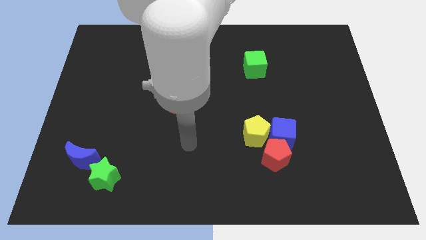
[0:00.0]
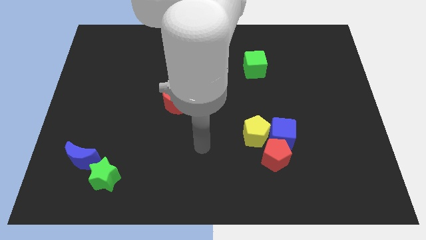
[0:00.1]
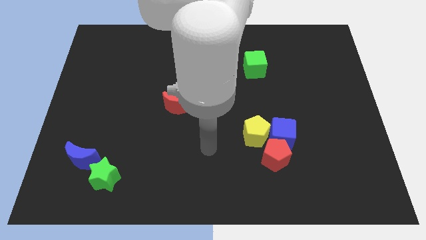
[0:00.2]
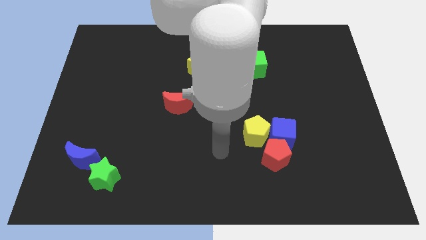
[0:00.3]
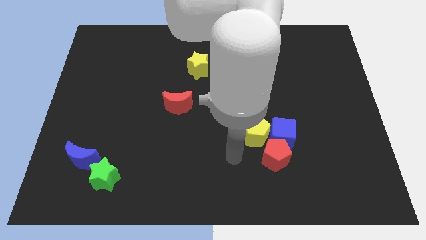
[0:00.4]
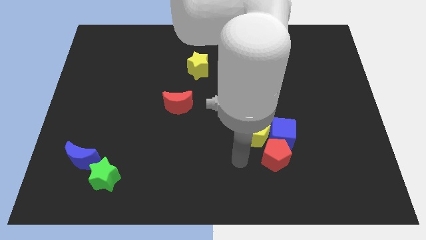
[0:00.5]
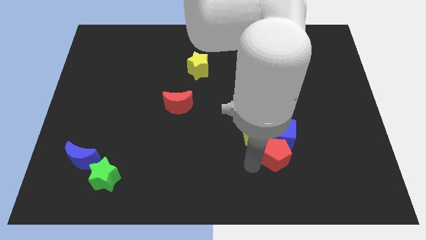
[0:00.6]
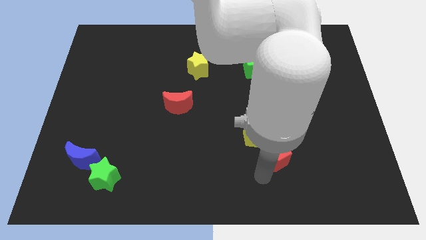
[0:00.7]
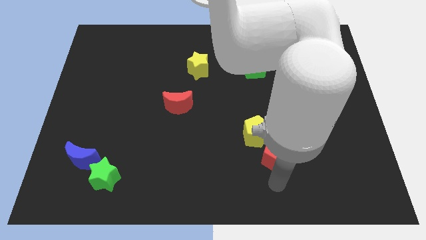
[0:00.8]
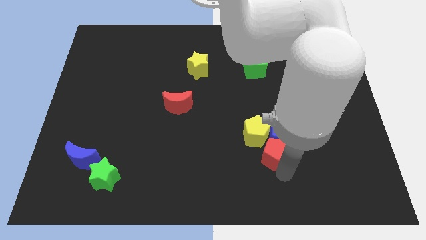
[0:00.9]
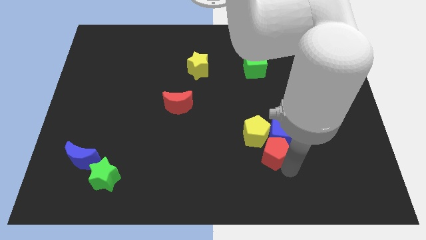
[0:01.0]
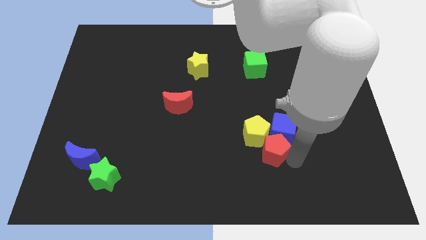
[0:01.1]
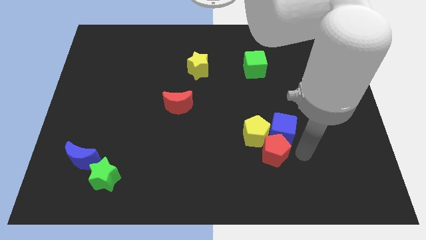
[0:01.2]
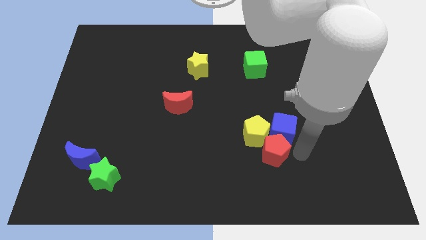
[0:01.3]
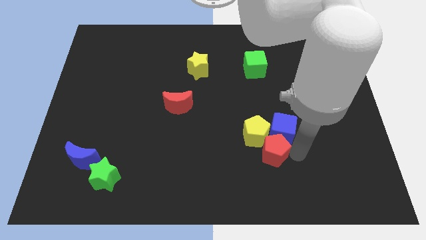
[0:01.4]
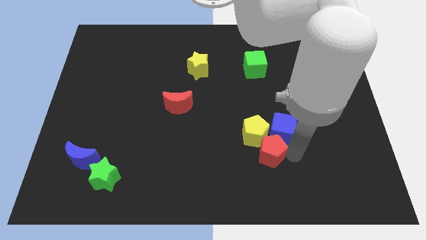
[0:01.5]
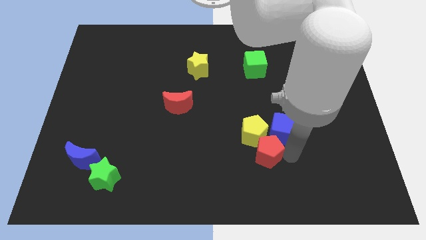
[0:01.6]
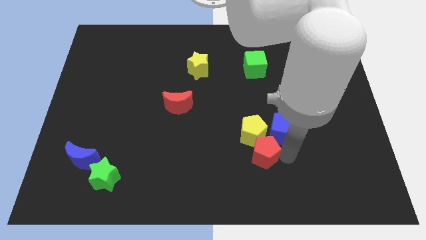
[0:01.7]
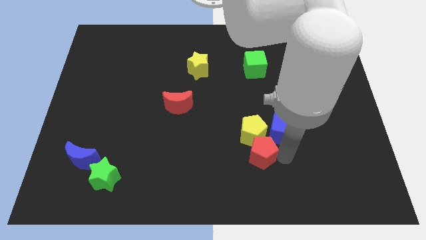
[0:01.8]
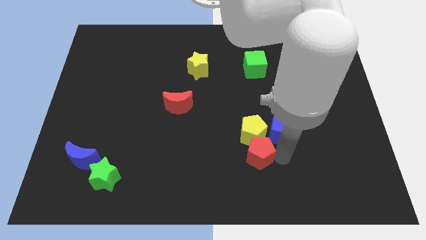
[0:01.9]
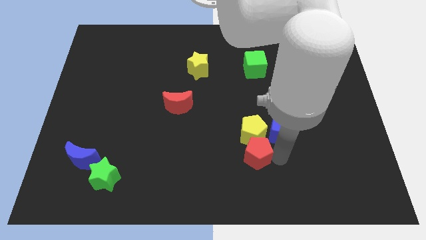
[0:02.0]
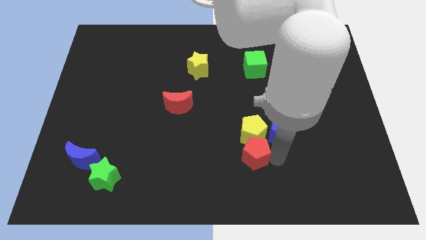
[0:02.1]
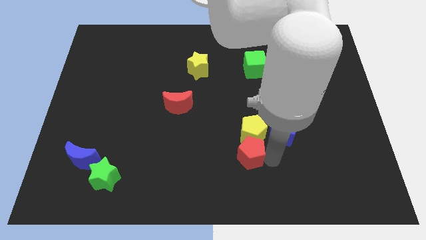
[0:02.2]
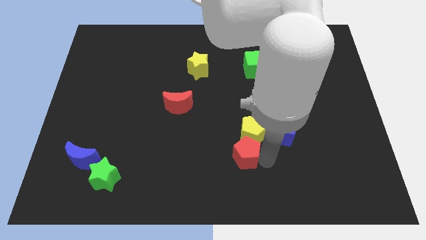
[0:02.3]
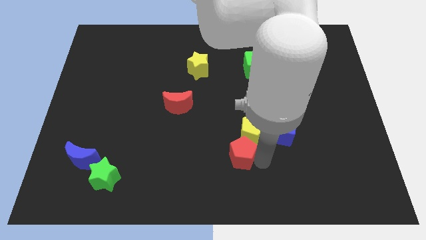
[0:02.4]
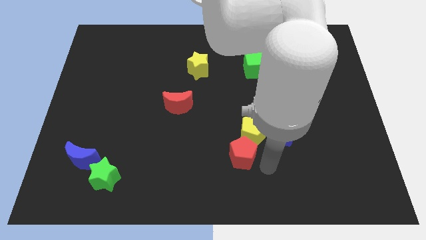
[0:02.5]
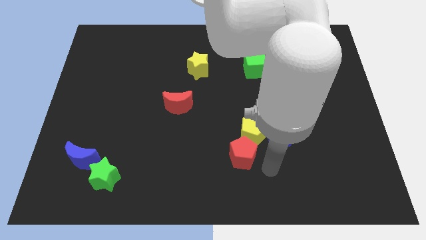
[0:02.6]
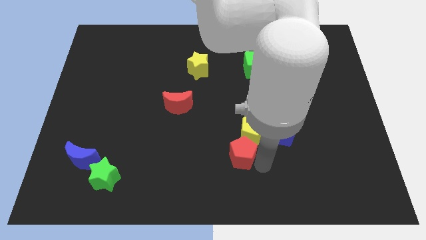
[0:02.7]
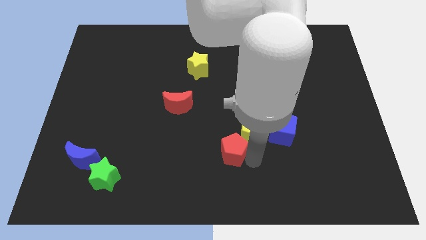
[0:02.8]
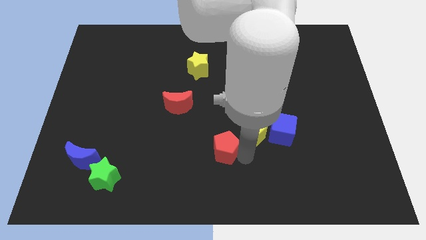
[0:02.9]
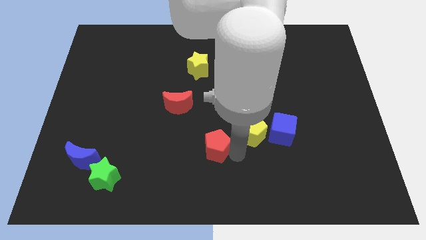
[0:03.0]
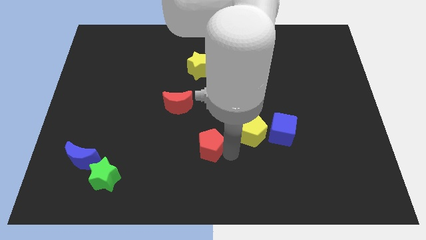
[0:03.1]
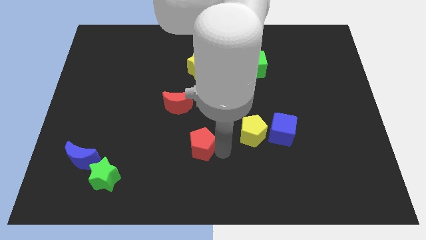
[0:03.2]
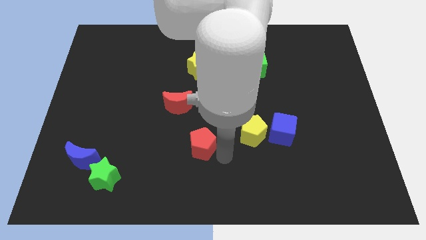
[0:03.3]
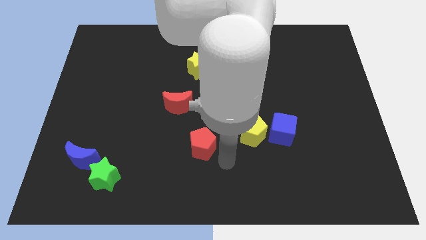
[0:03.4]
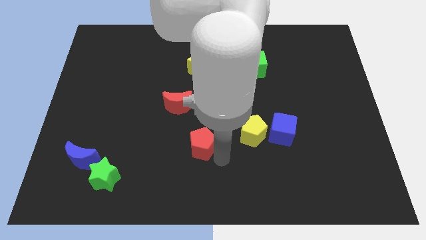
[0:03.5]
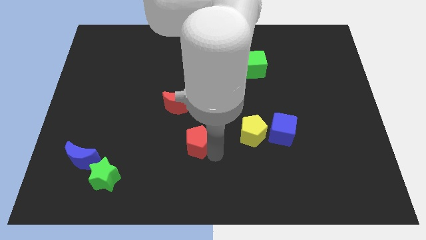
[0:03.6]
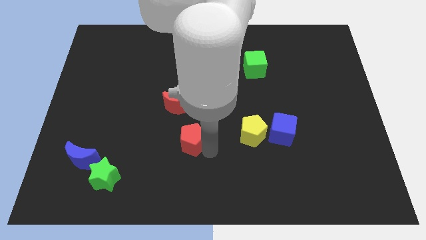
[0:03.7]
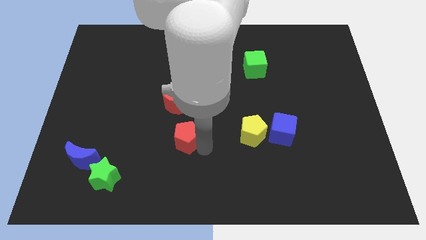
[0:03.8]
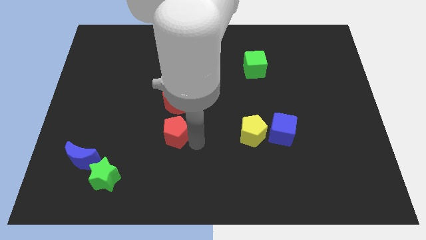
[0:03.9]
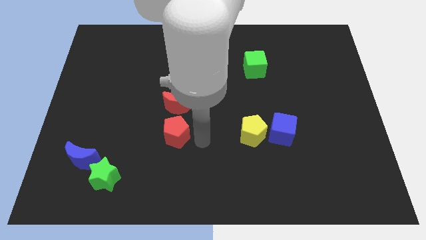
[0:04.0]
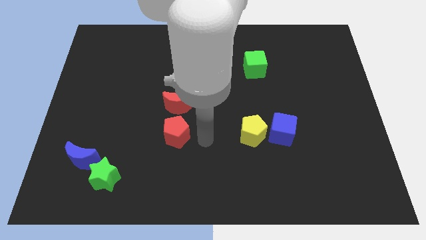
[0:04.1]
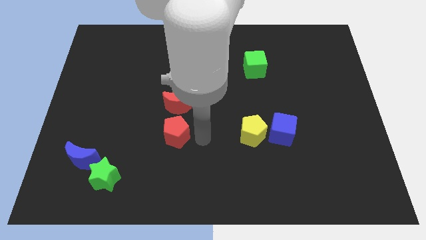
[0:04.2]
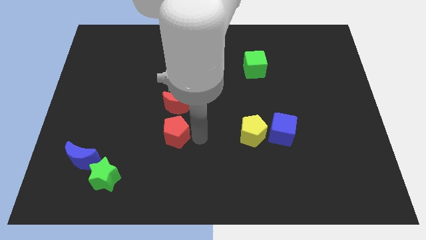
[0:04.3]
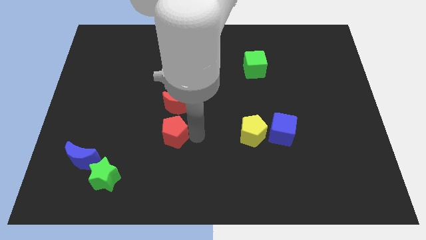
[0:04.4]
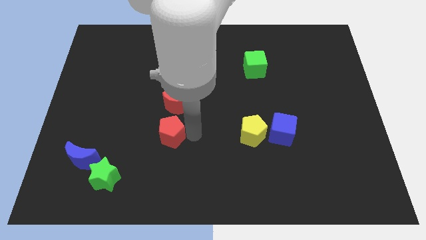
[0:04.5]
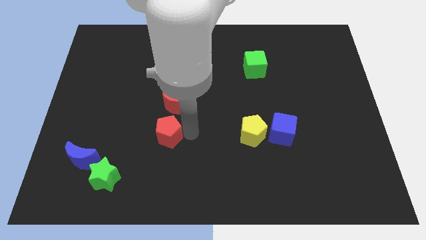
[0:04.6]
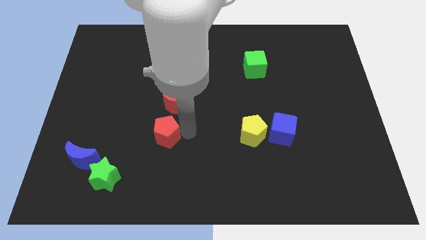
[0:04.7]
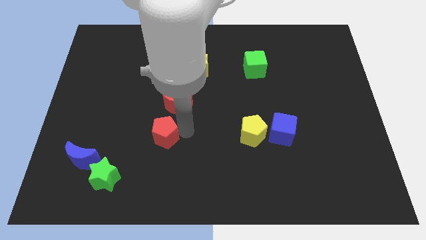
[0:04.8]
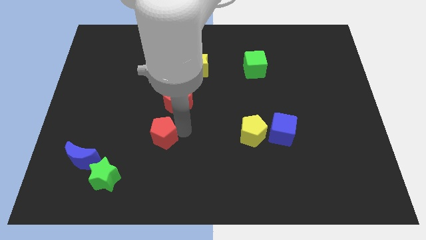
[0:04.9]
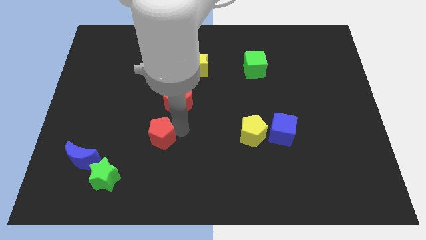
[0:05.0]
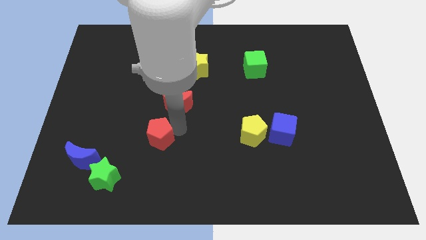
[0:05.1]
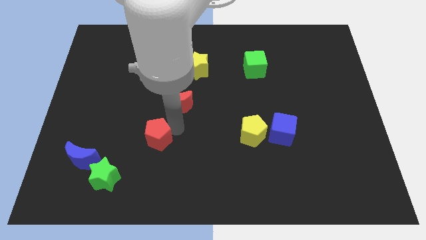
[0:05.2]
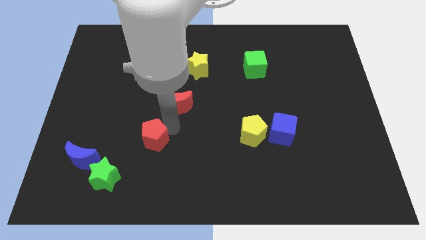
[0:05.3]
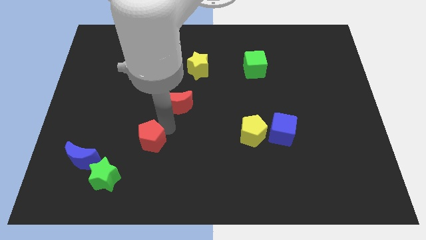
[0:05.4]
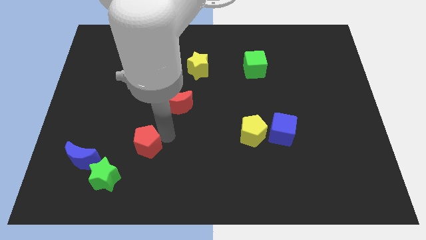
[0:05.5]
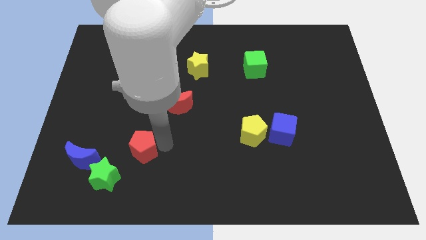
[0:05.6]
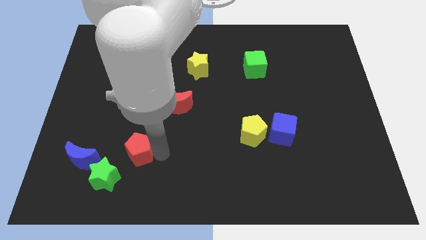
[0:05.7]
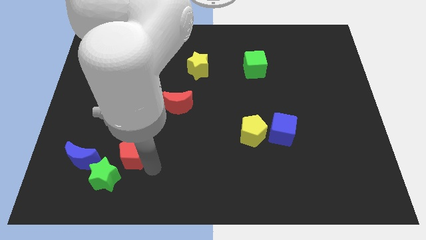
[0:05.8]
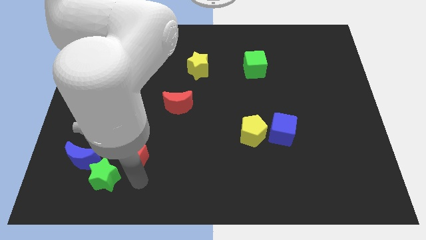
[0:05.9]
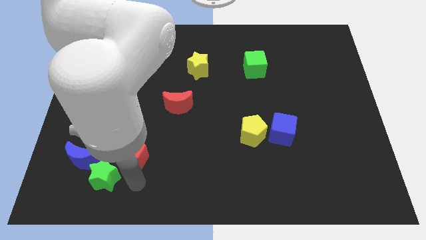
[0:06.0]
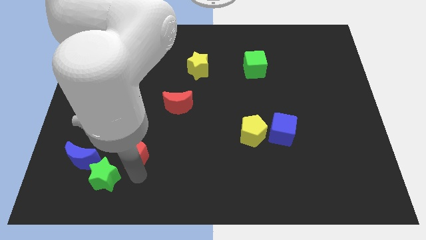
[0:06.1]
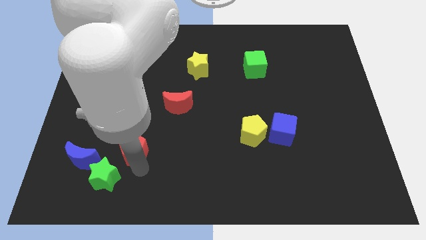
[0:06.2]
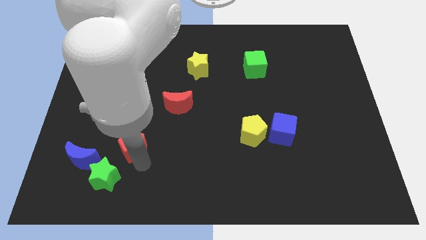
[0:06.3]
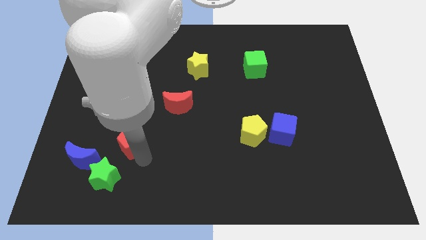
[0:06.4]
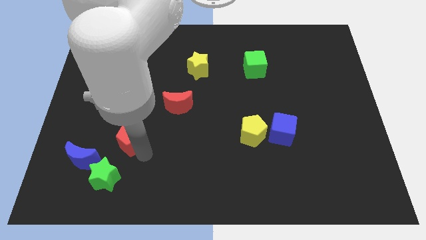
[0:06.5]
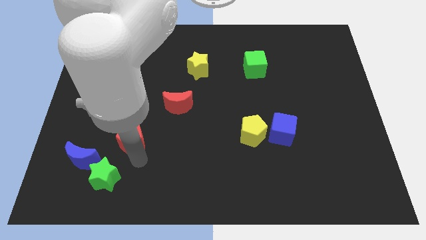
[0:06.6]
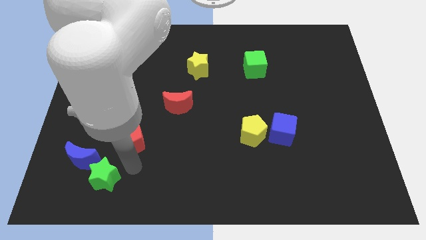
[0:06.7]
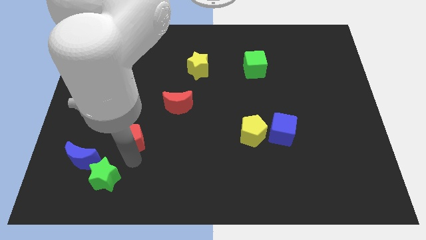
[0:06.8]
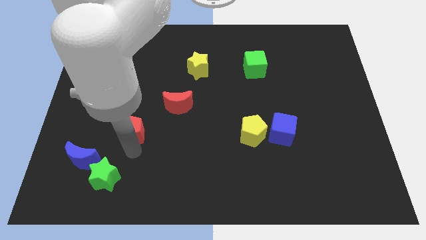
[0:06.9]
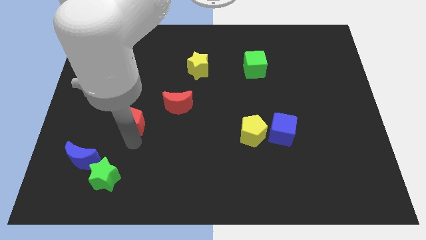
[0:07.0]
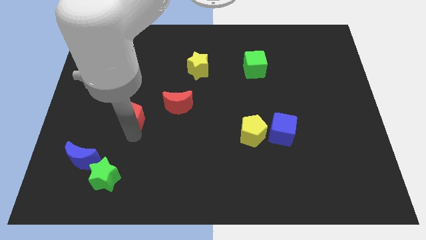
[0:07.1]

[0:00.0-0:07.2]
put the red pentagon just left of the red moon
